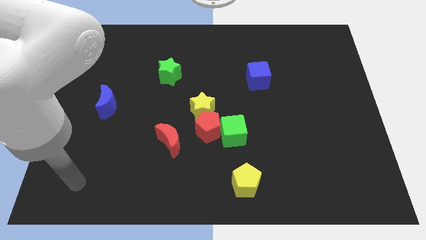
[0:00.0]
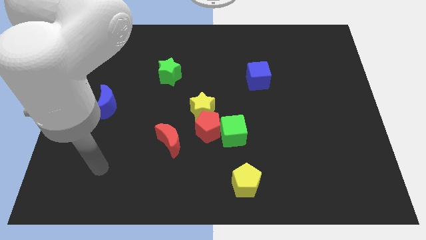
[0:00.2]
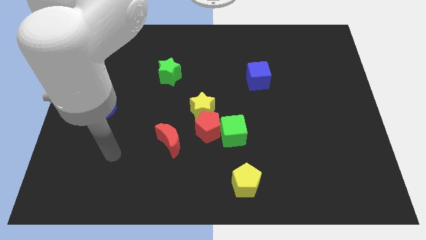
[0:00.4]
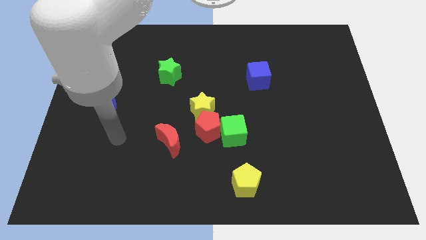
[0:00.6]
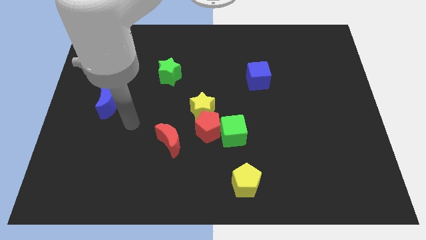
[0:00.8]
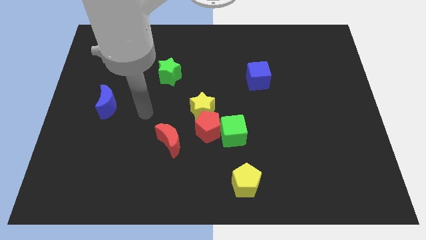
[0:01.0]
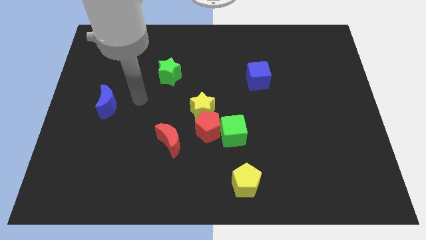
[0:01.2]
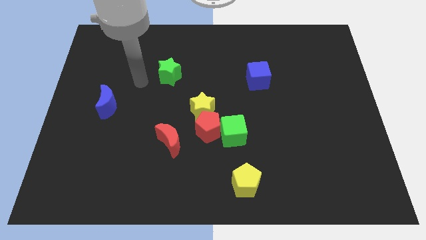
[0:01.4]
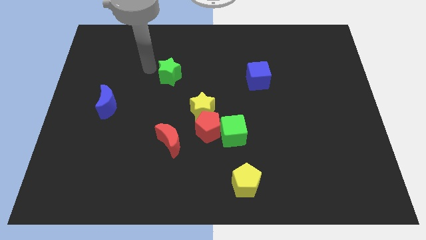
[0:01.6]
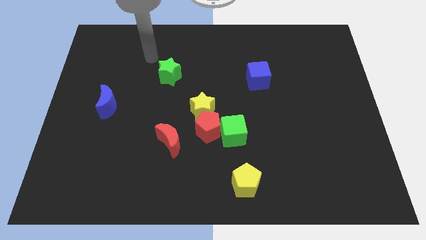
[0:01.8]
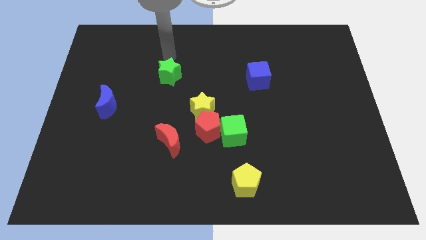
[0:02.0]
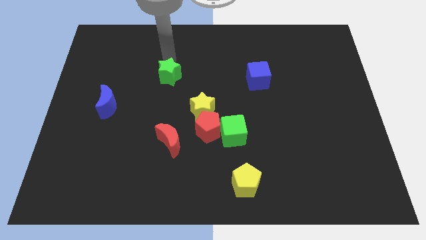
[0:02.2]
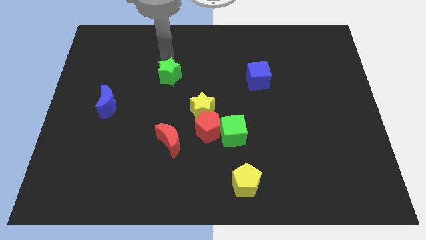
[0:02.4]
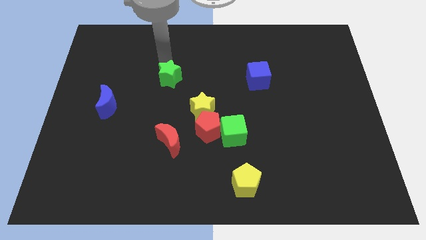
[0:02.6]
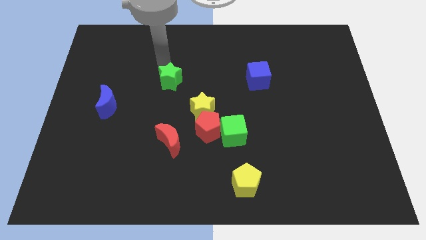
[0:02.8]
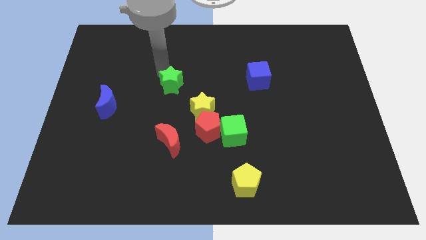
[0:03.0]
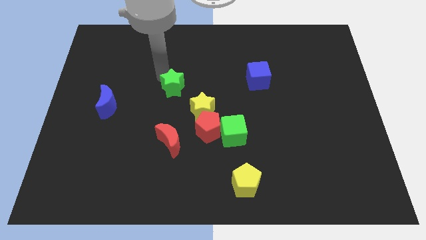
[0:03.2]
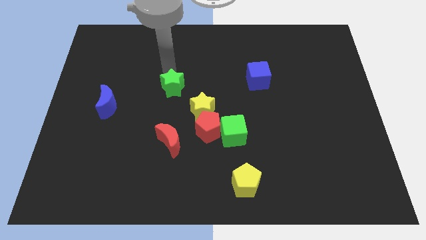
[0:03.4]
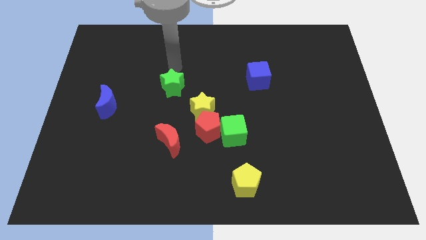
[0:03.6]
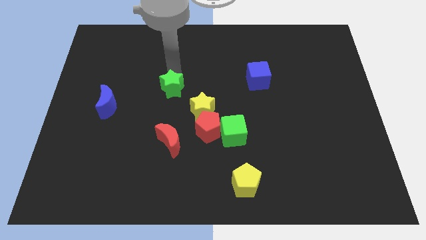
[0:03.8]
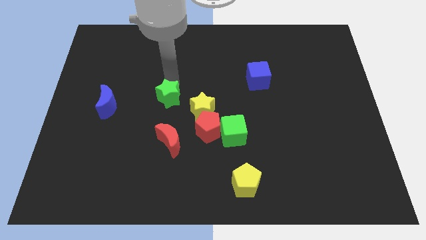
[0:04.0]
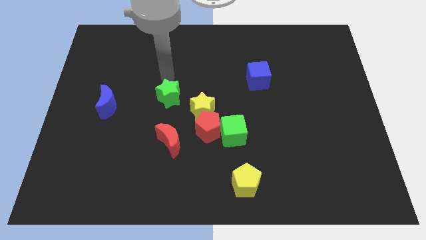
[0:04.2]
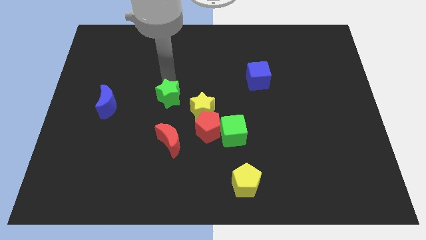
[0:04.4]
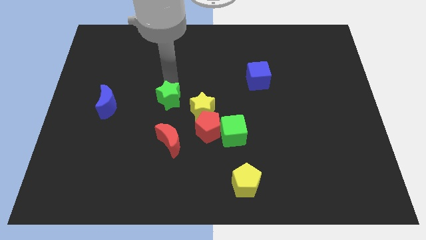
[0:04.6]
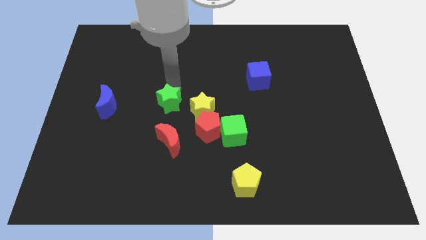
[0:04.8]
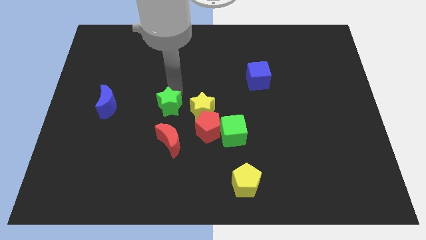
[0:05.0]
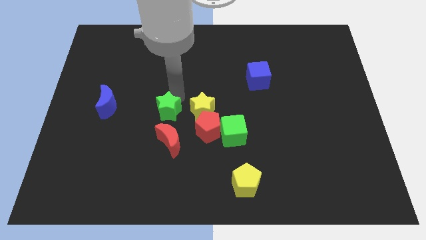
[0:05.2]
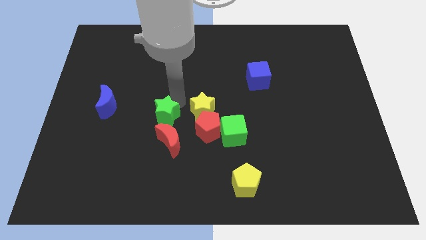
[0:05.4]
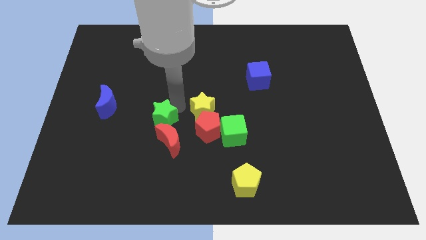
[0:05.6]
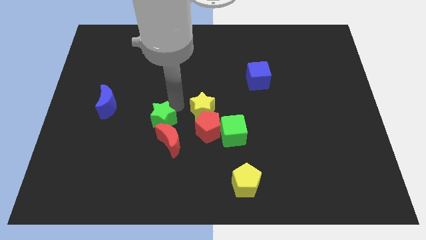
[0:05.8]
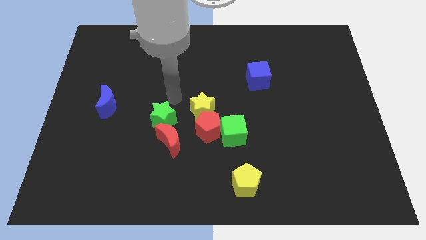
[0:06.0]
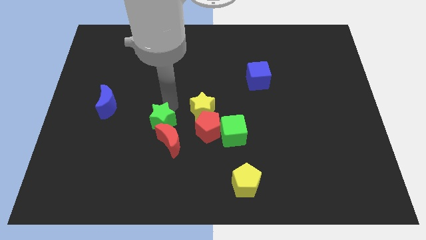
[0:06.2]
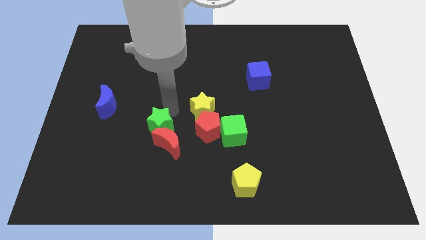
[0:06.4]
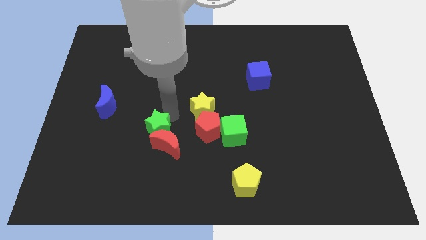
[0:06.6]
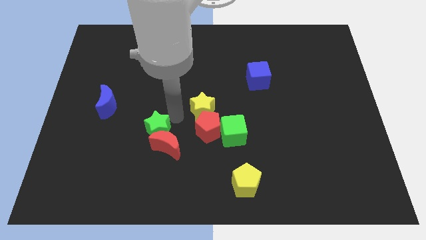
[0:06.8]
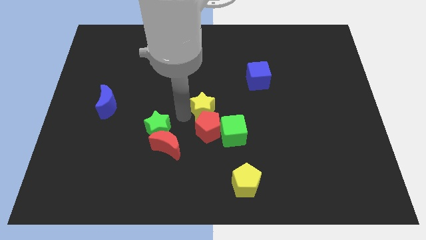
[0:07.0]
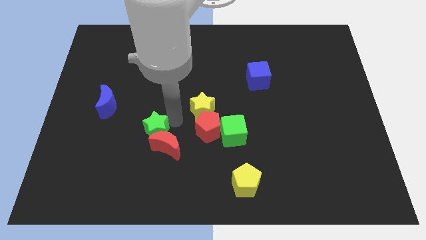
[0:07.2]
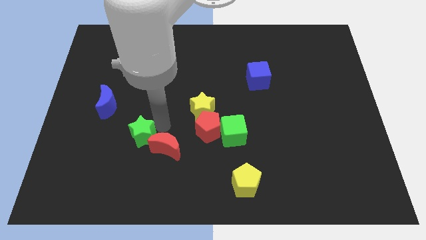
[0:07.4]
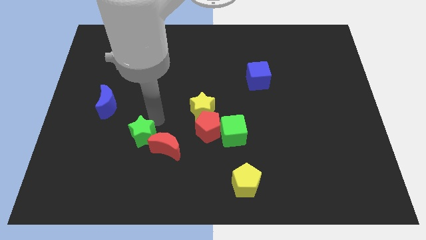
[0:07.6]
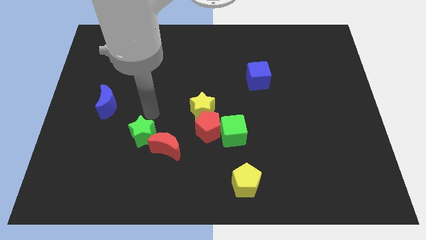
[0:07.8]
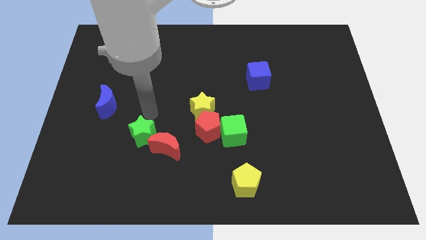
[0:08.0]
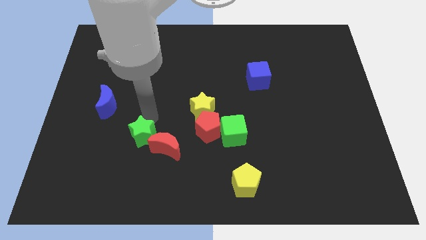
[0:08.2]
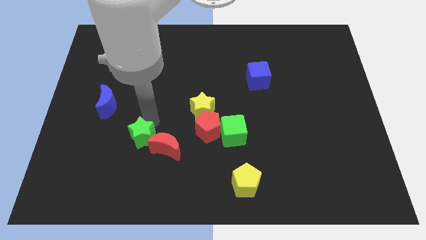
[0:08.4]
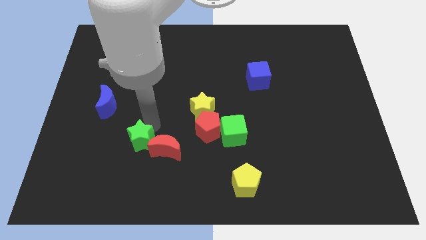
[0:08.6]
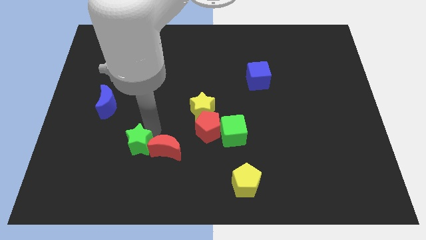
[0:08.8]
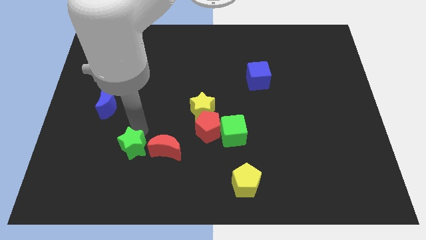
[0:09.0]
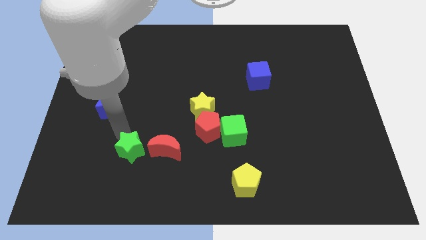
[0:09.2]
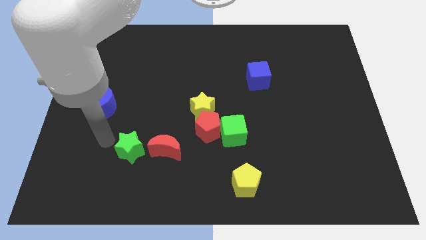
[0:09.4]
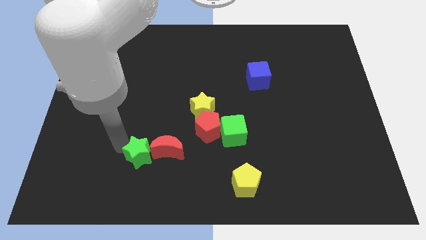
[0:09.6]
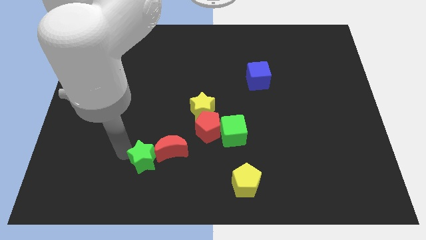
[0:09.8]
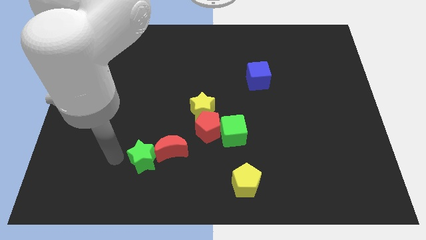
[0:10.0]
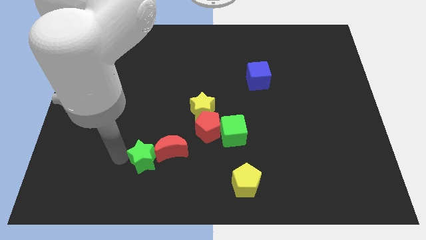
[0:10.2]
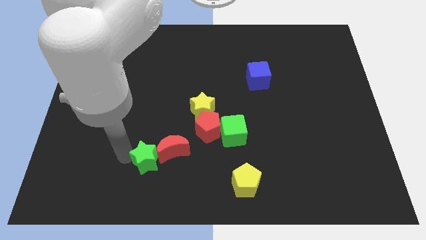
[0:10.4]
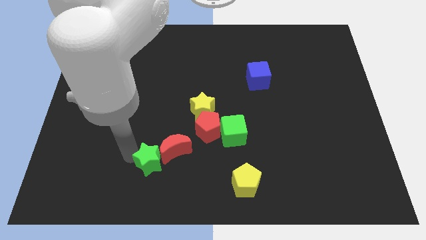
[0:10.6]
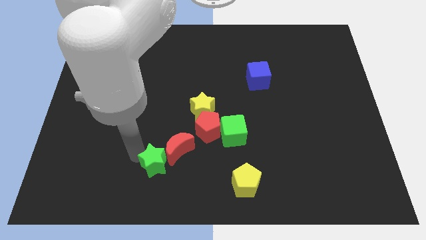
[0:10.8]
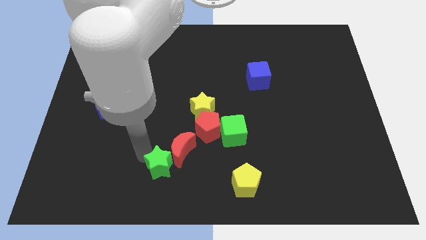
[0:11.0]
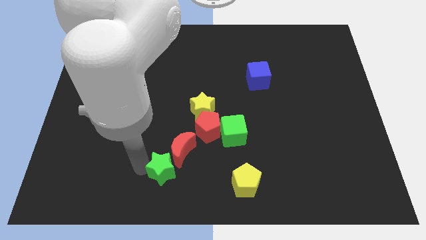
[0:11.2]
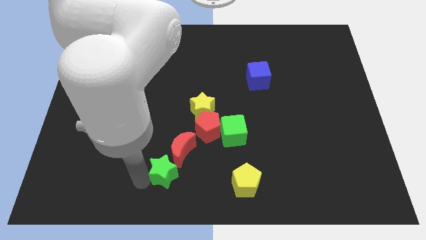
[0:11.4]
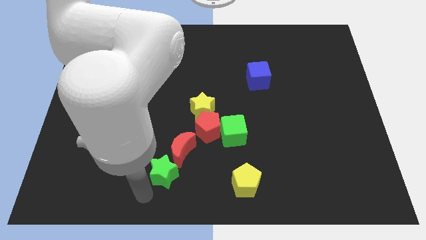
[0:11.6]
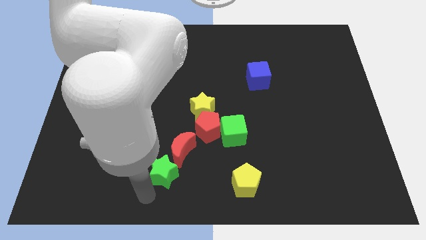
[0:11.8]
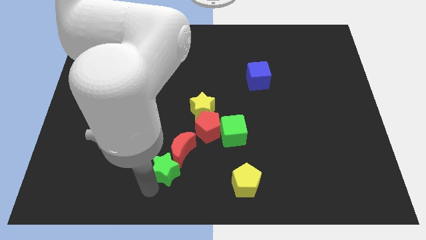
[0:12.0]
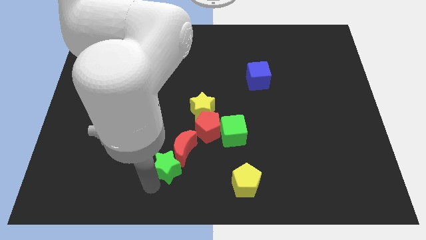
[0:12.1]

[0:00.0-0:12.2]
move the green star diagonally down and to the left of the red pentagon

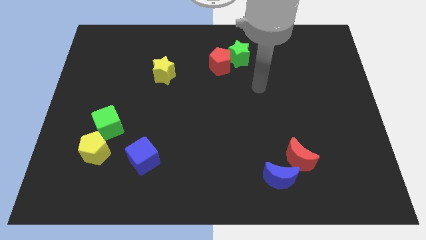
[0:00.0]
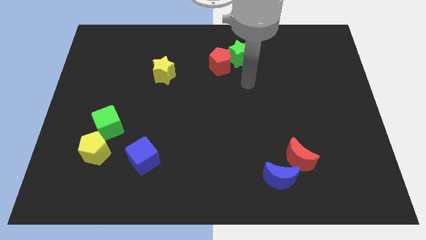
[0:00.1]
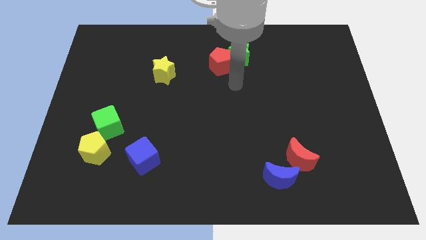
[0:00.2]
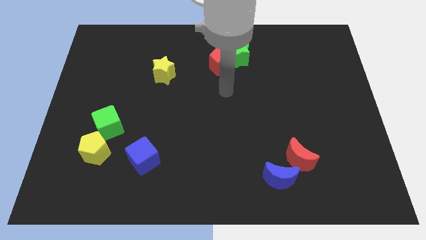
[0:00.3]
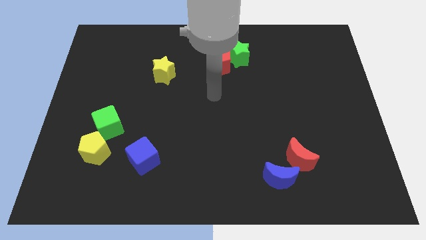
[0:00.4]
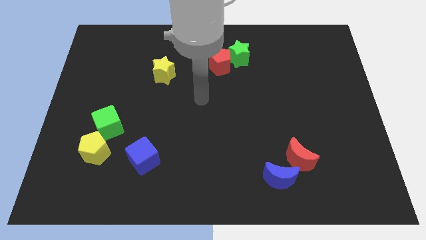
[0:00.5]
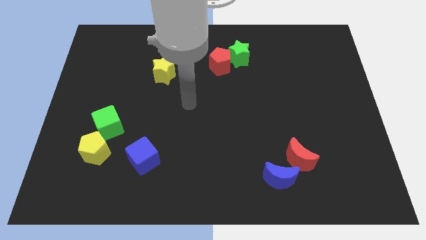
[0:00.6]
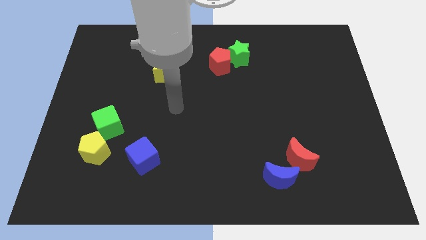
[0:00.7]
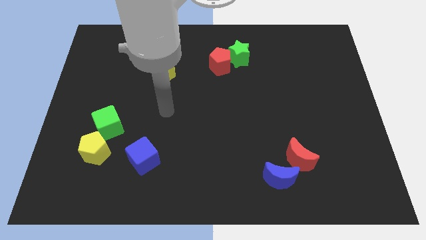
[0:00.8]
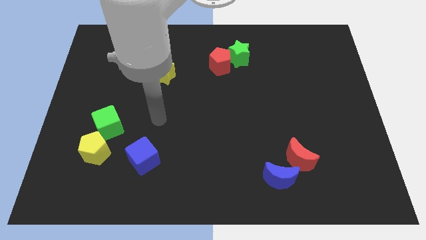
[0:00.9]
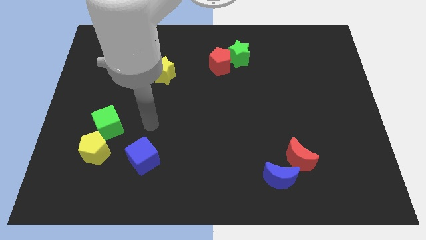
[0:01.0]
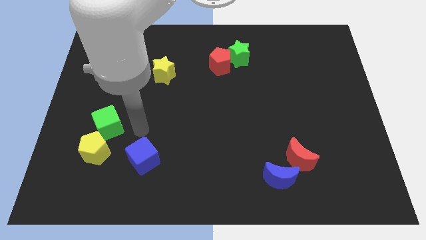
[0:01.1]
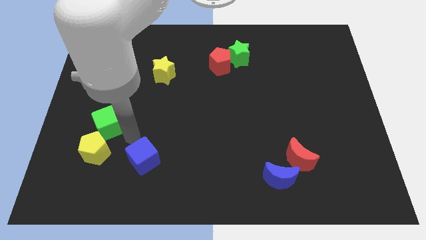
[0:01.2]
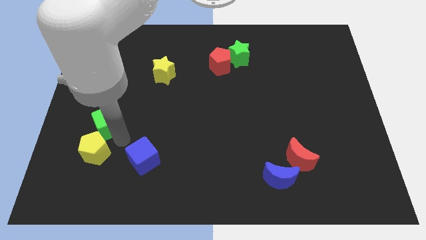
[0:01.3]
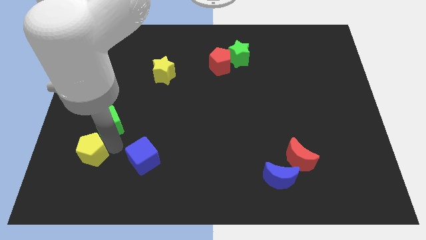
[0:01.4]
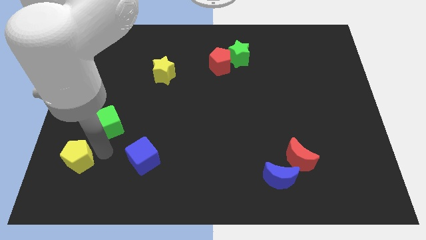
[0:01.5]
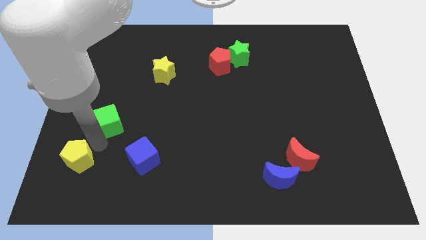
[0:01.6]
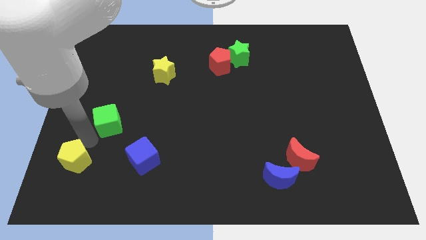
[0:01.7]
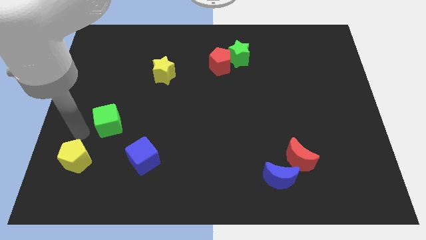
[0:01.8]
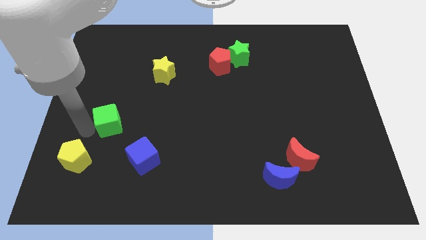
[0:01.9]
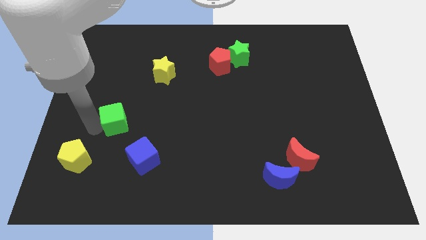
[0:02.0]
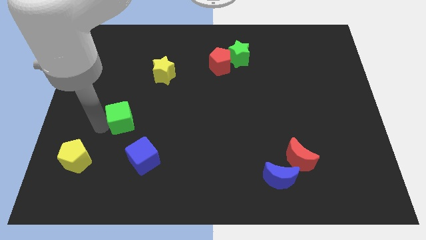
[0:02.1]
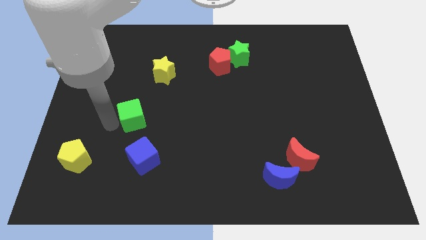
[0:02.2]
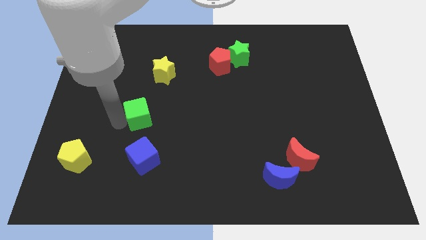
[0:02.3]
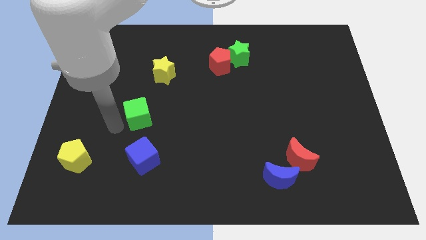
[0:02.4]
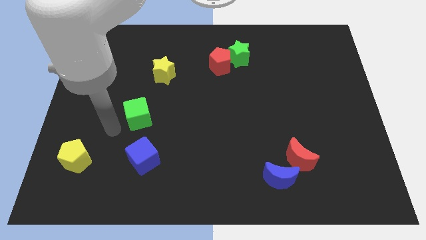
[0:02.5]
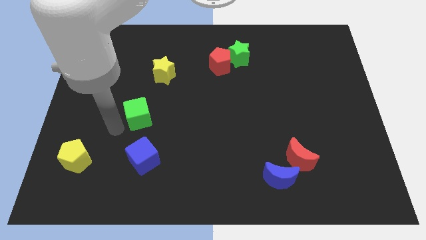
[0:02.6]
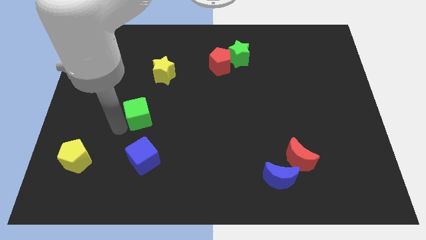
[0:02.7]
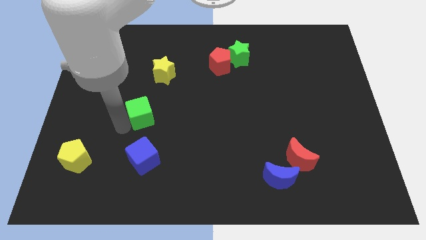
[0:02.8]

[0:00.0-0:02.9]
put the green cube below the yellow star
